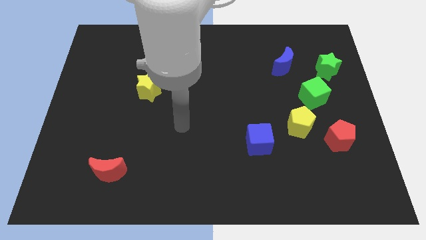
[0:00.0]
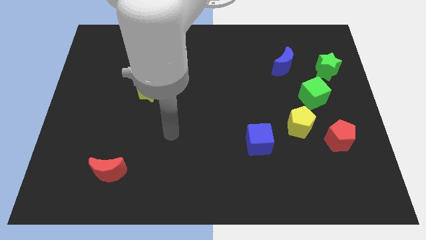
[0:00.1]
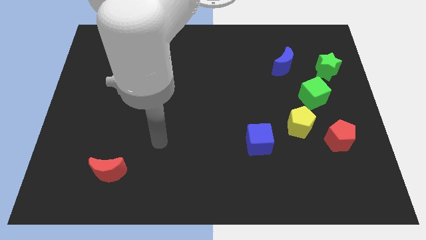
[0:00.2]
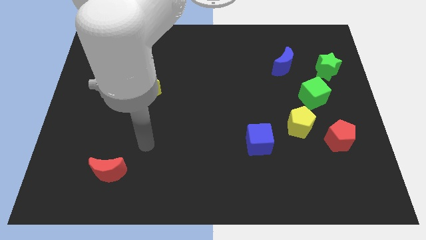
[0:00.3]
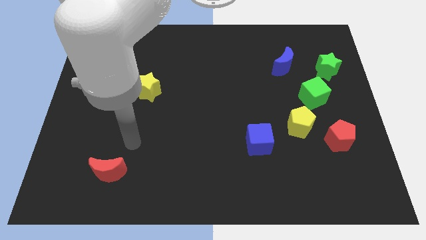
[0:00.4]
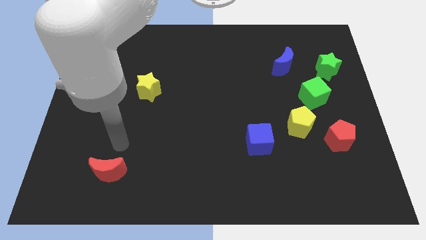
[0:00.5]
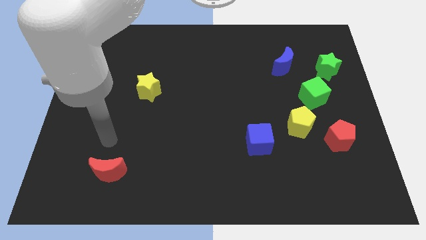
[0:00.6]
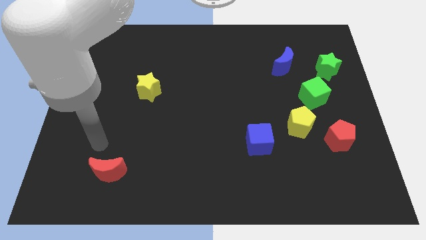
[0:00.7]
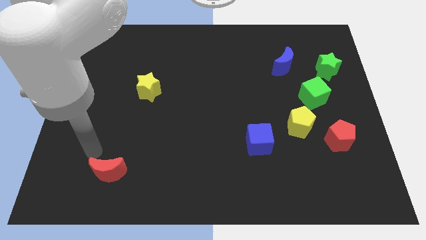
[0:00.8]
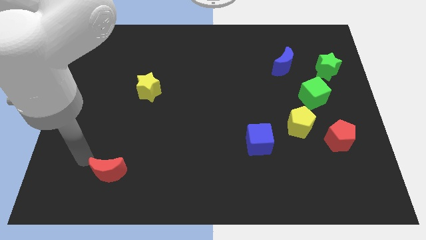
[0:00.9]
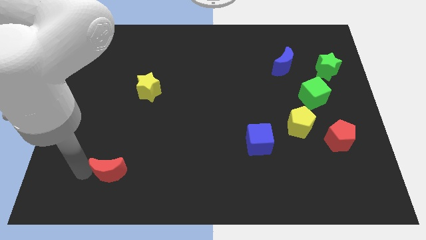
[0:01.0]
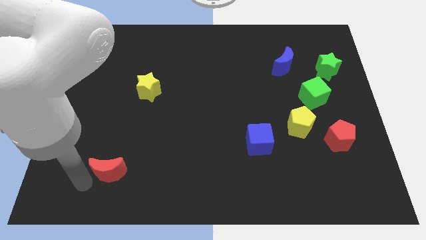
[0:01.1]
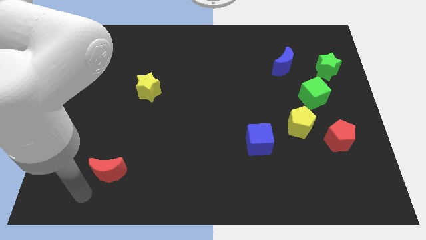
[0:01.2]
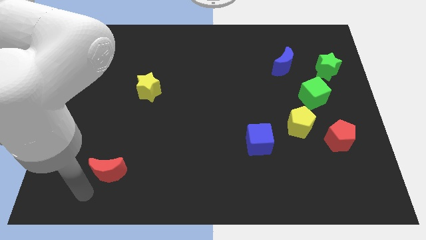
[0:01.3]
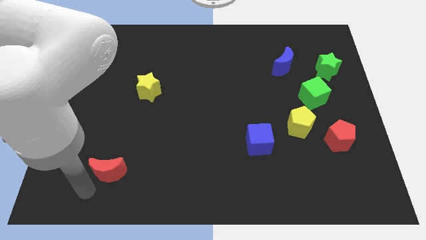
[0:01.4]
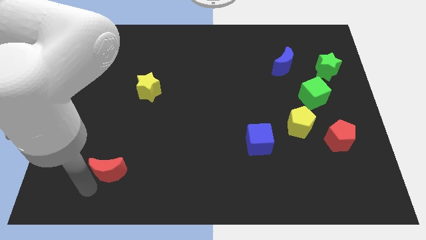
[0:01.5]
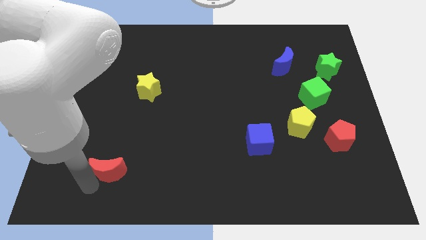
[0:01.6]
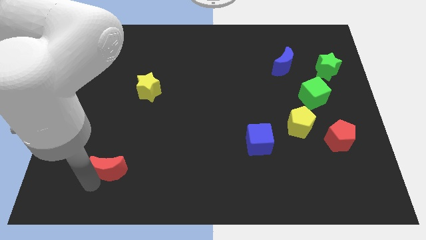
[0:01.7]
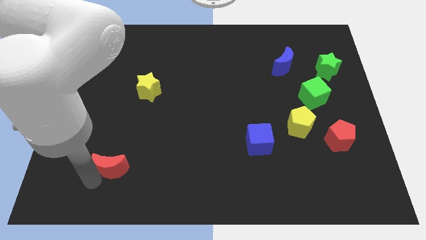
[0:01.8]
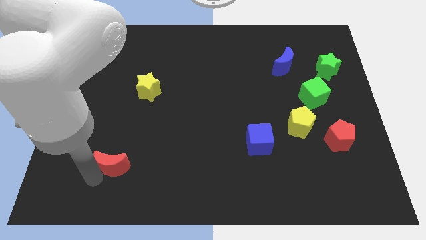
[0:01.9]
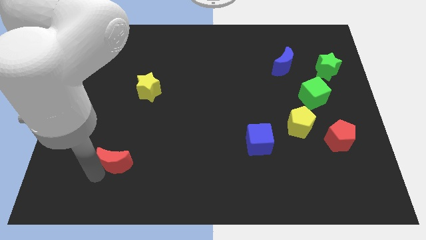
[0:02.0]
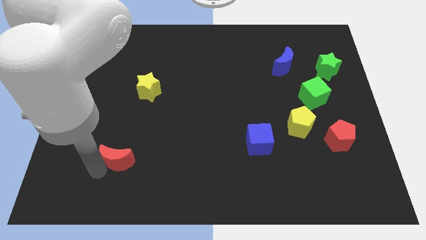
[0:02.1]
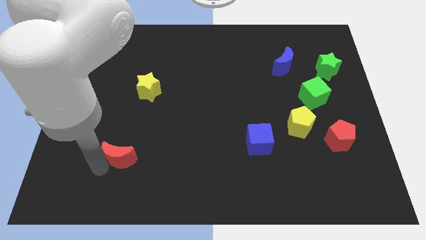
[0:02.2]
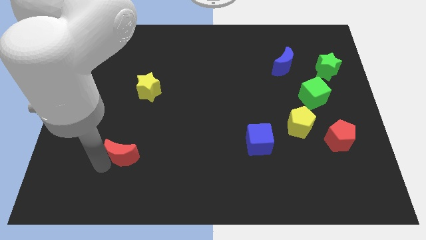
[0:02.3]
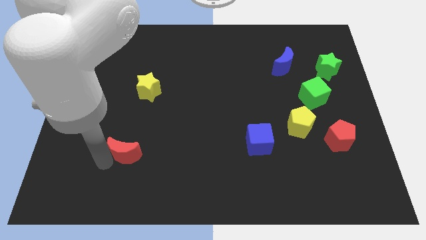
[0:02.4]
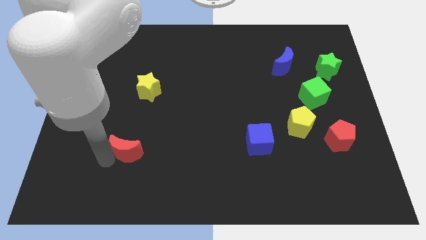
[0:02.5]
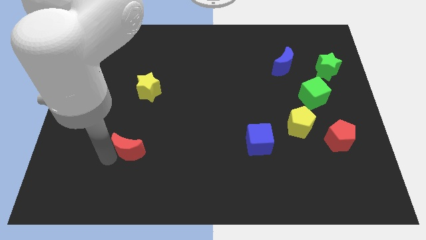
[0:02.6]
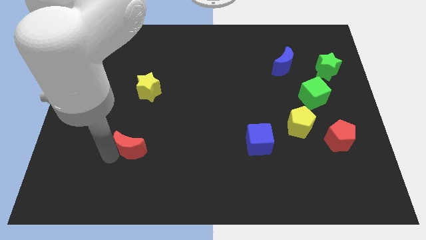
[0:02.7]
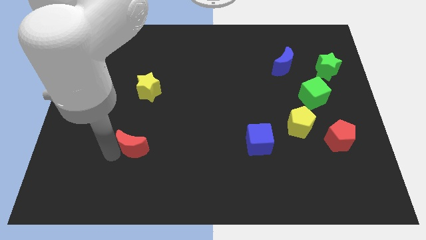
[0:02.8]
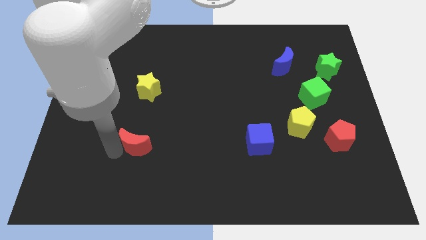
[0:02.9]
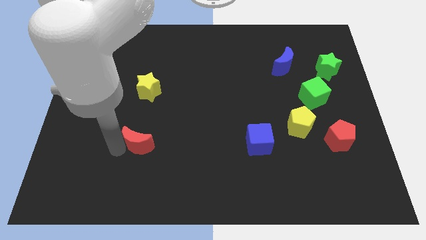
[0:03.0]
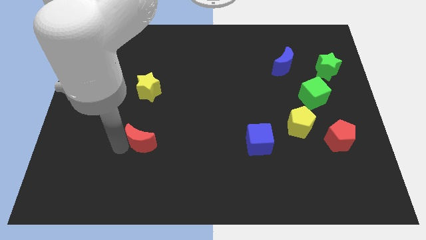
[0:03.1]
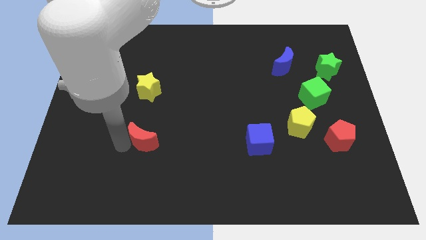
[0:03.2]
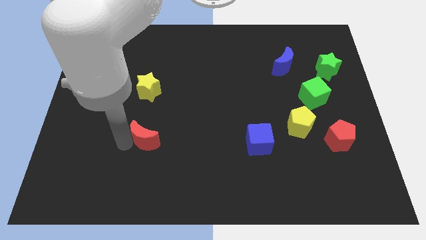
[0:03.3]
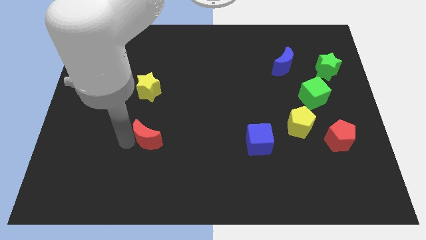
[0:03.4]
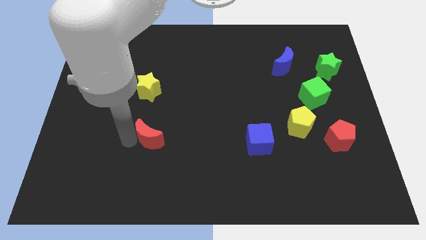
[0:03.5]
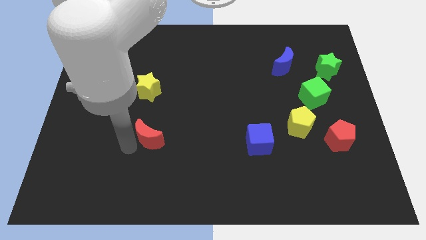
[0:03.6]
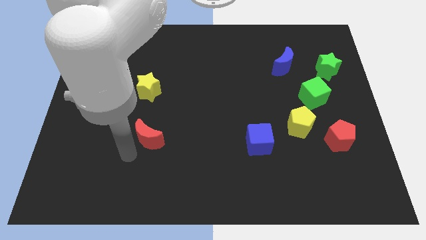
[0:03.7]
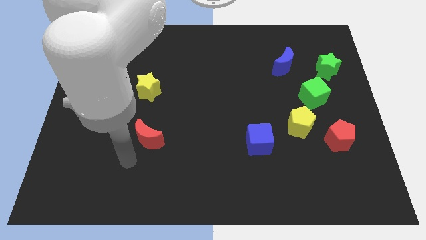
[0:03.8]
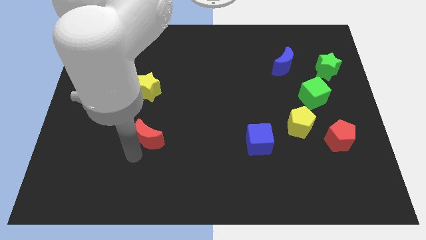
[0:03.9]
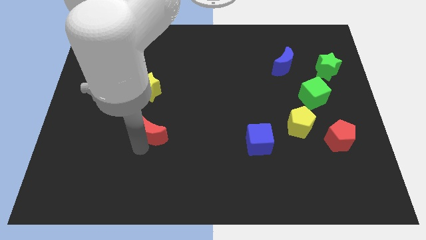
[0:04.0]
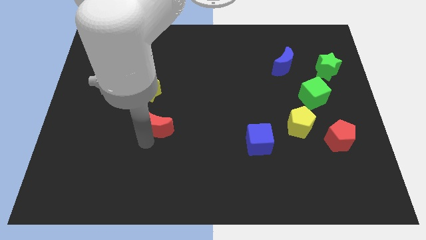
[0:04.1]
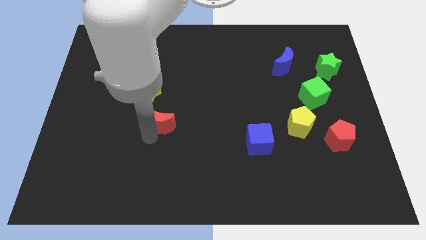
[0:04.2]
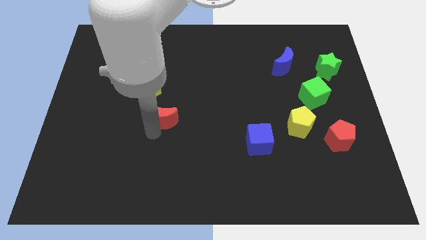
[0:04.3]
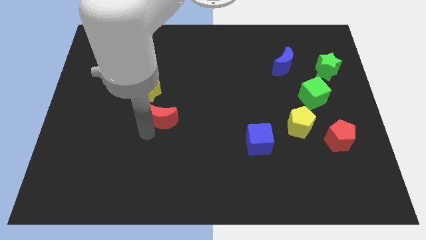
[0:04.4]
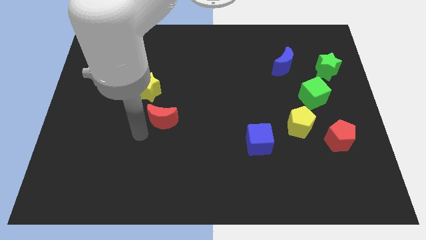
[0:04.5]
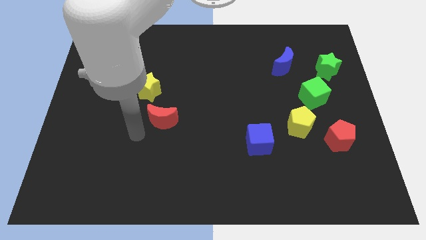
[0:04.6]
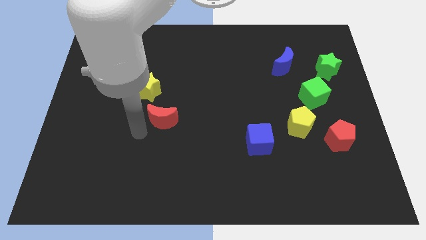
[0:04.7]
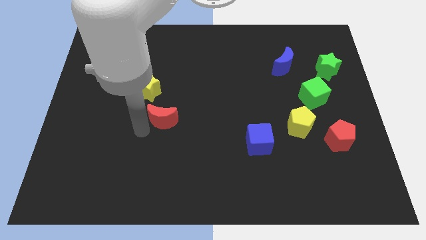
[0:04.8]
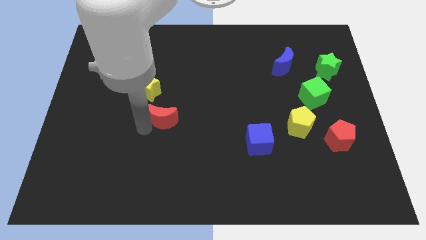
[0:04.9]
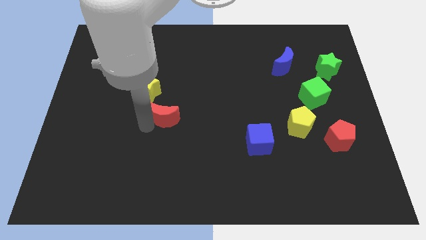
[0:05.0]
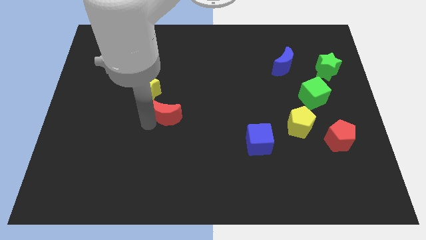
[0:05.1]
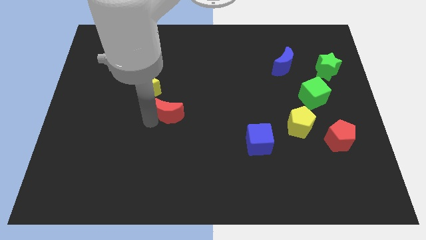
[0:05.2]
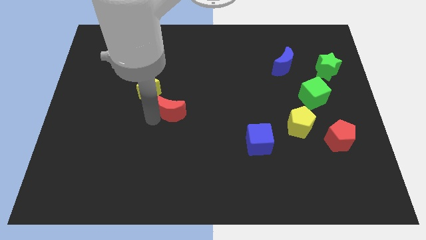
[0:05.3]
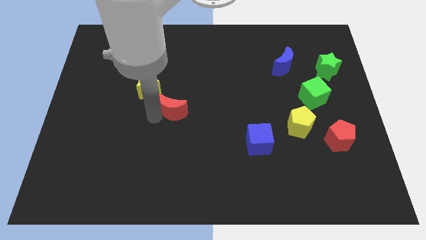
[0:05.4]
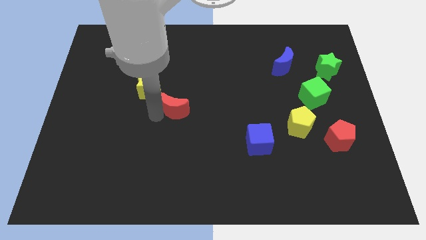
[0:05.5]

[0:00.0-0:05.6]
push the red moon up and right

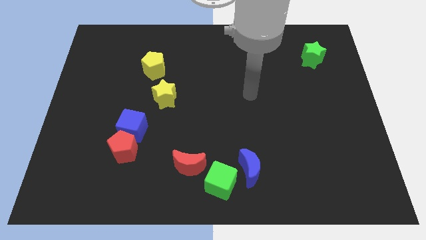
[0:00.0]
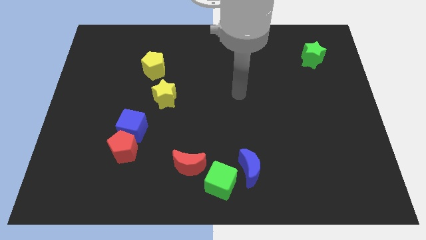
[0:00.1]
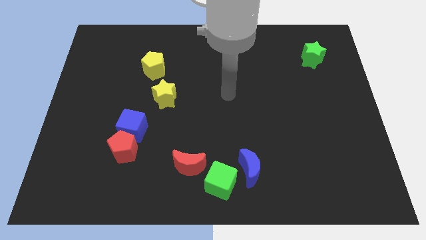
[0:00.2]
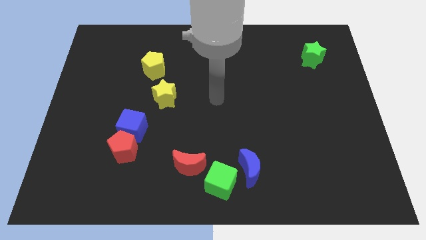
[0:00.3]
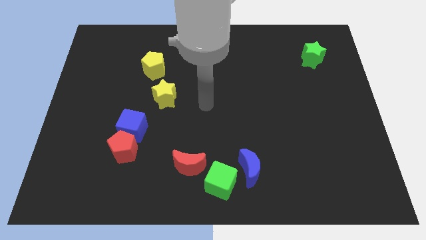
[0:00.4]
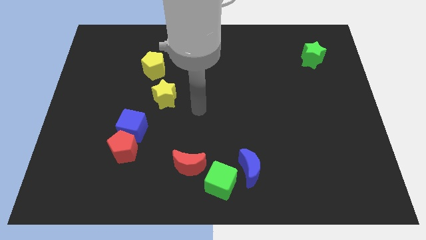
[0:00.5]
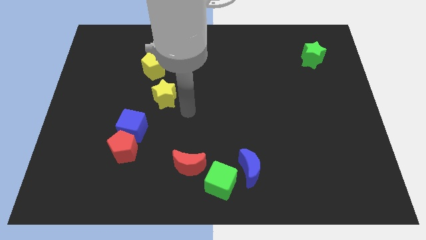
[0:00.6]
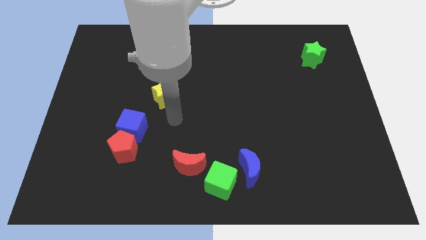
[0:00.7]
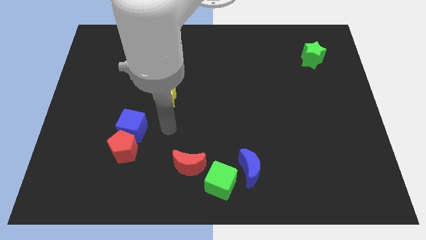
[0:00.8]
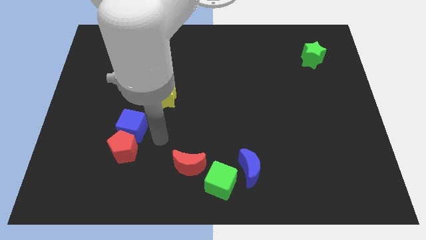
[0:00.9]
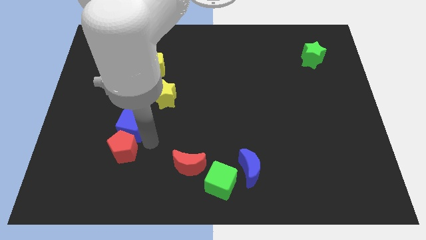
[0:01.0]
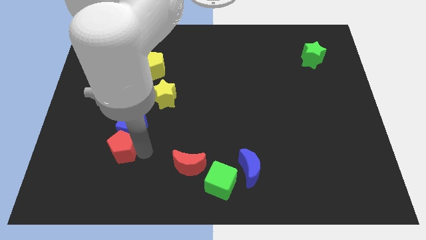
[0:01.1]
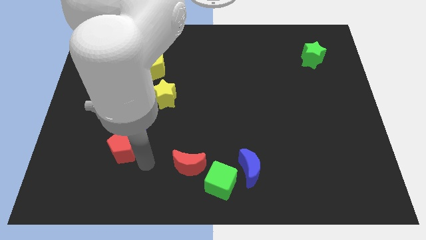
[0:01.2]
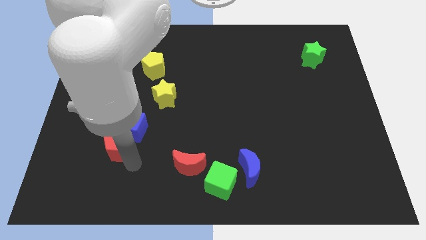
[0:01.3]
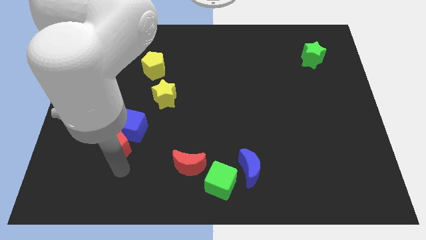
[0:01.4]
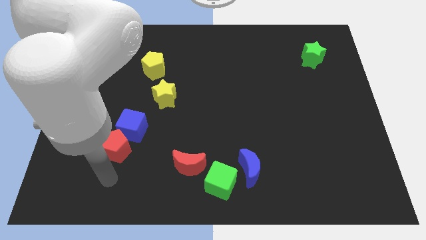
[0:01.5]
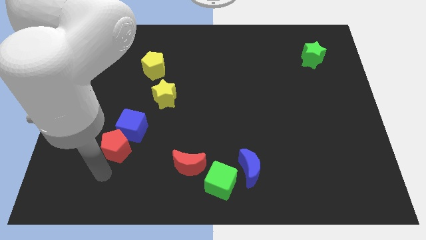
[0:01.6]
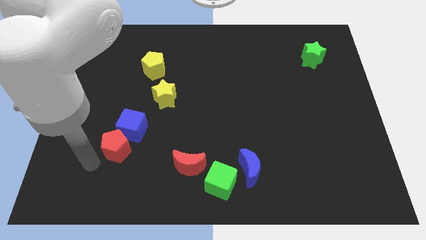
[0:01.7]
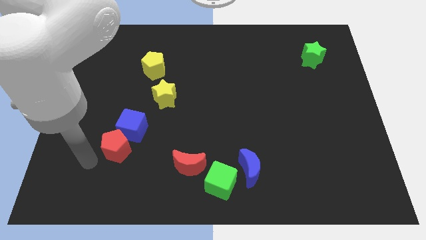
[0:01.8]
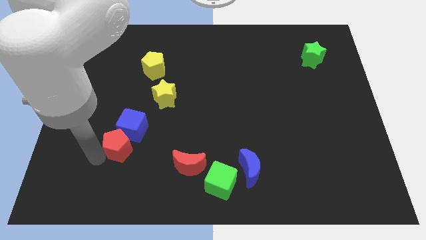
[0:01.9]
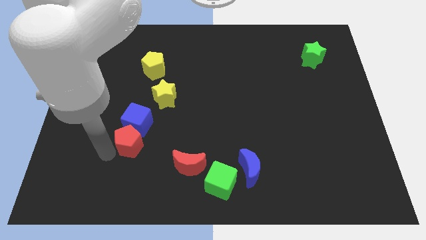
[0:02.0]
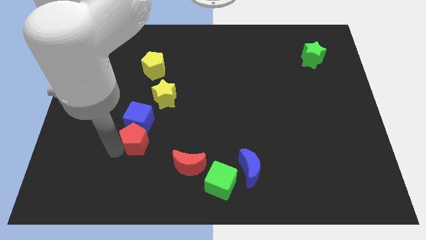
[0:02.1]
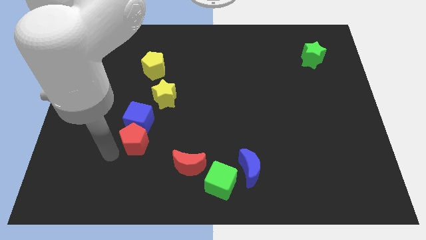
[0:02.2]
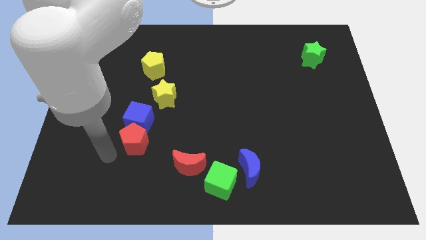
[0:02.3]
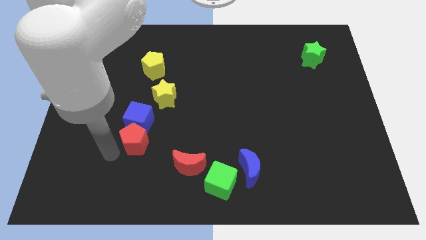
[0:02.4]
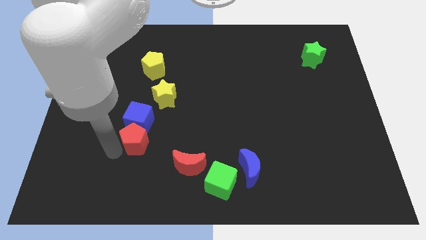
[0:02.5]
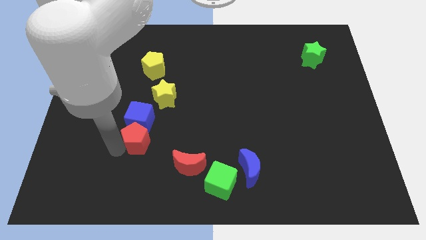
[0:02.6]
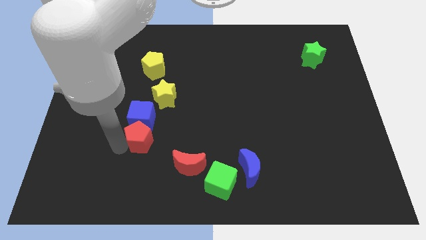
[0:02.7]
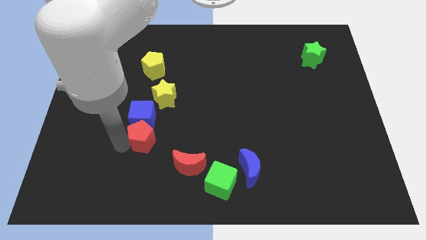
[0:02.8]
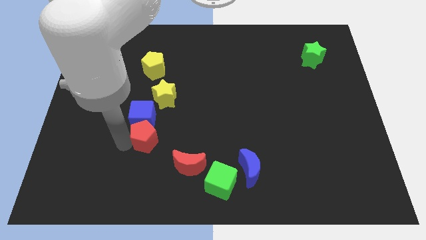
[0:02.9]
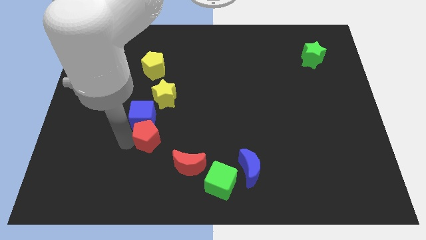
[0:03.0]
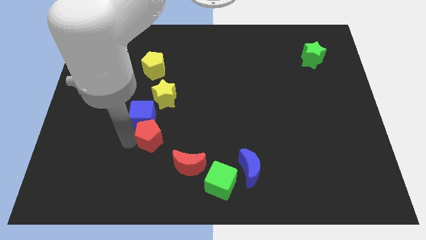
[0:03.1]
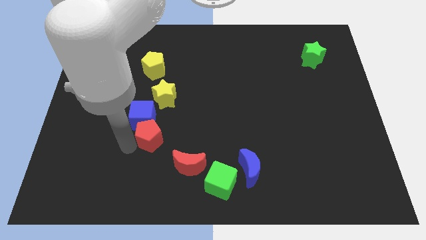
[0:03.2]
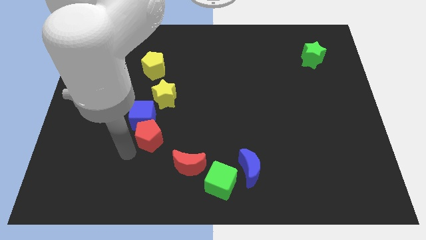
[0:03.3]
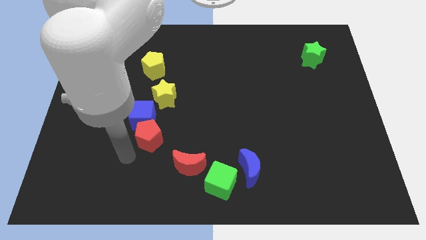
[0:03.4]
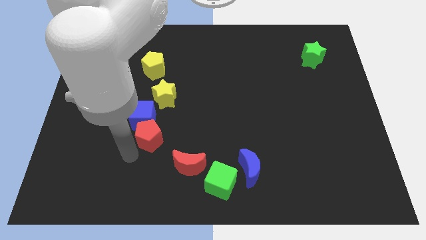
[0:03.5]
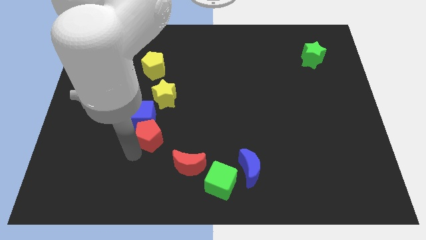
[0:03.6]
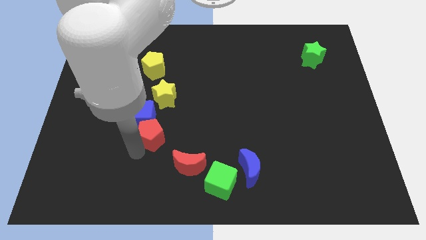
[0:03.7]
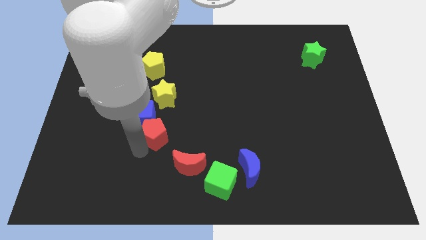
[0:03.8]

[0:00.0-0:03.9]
push the red pentagon upwards and right diagonally a little bit
